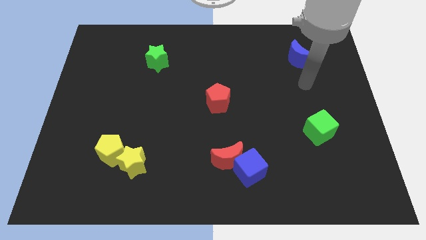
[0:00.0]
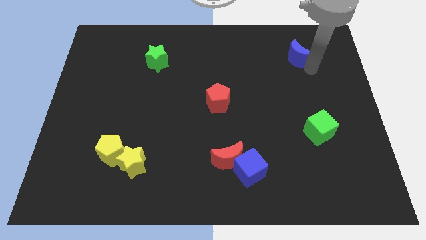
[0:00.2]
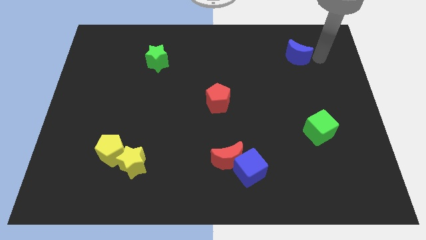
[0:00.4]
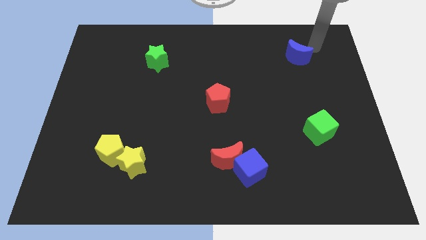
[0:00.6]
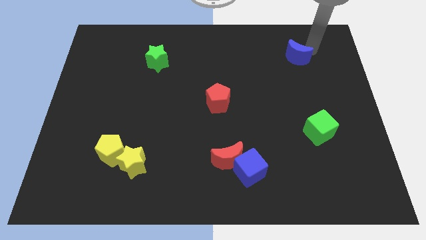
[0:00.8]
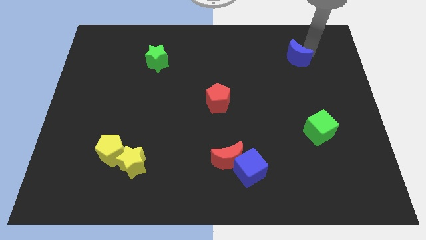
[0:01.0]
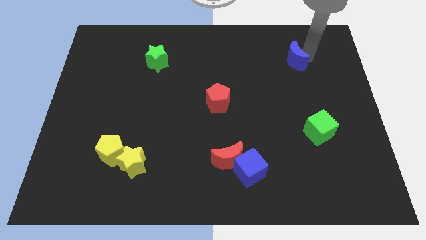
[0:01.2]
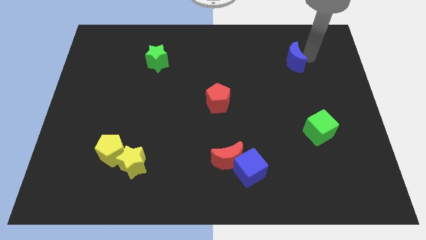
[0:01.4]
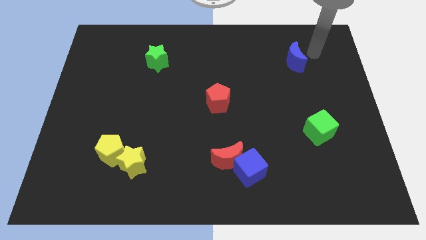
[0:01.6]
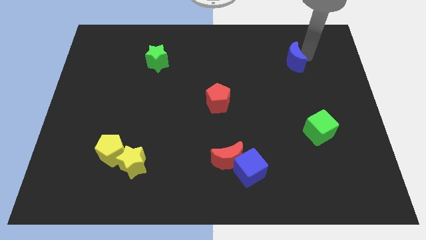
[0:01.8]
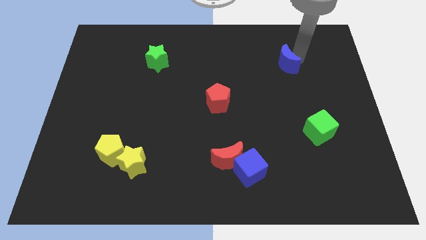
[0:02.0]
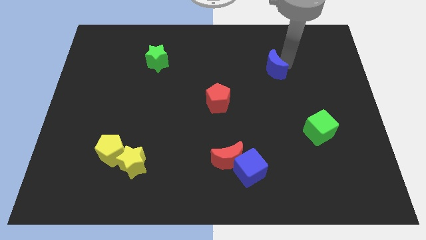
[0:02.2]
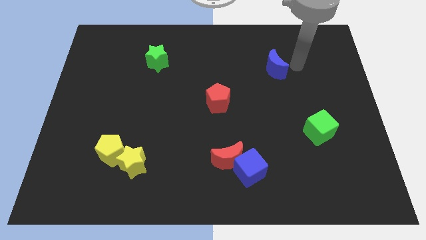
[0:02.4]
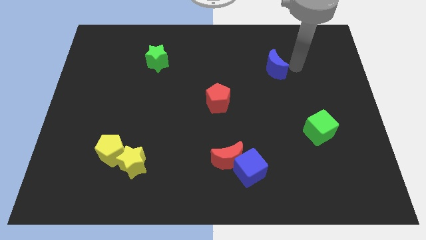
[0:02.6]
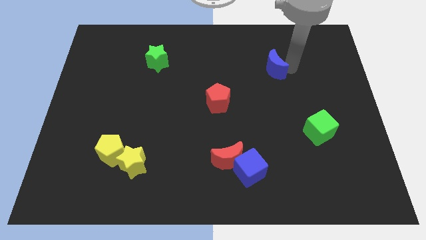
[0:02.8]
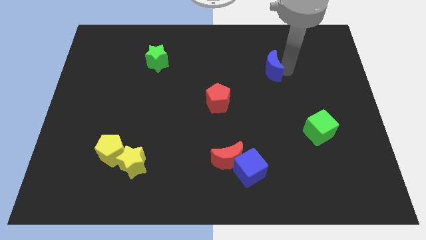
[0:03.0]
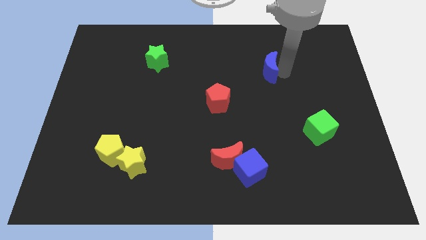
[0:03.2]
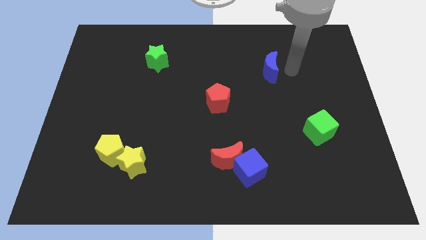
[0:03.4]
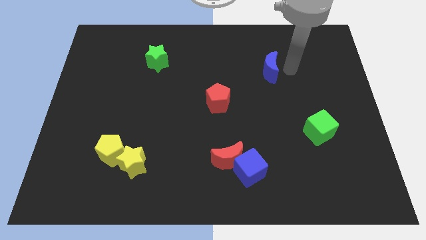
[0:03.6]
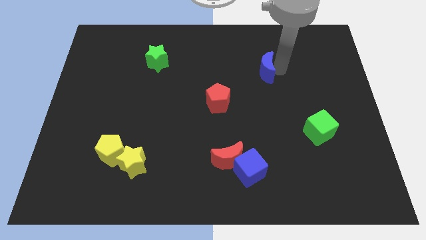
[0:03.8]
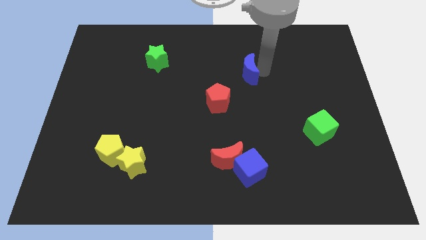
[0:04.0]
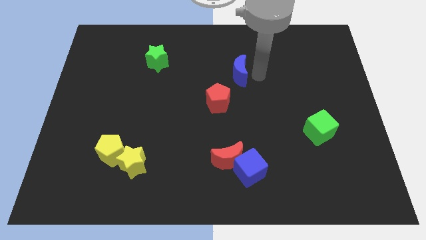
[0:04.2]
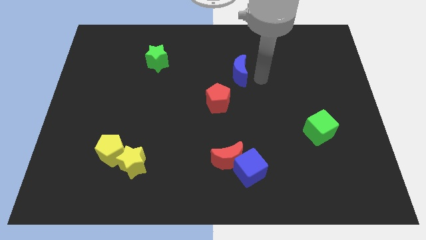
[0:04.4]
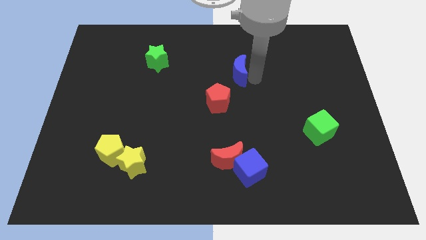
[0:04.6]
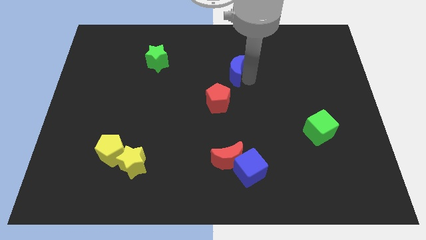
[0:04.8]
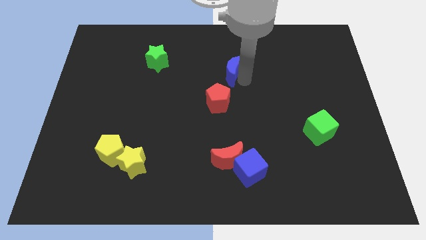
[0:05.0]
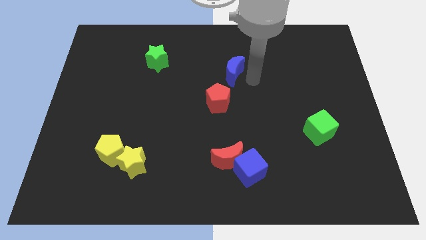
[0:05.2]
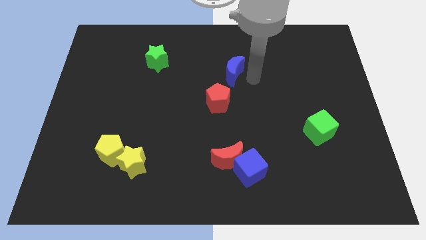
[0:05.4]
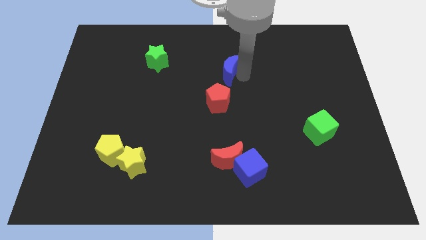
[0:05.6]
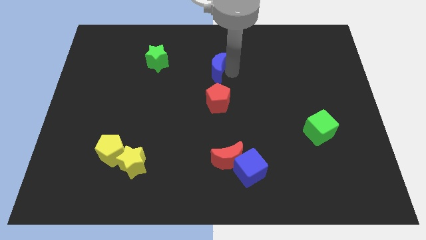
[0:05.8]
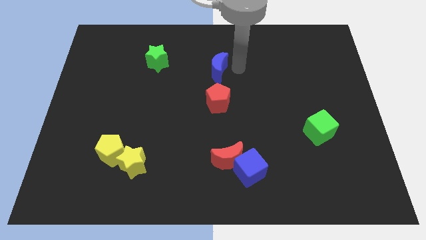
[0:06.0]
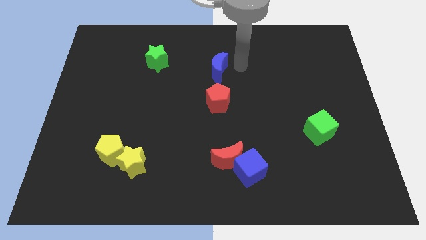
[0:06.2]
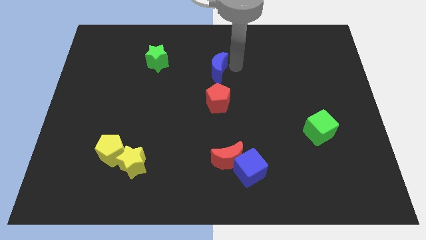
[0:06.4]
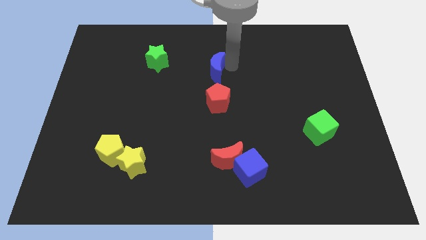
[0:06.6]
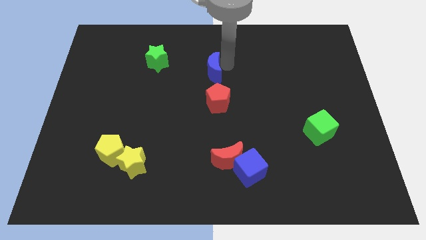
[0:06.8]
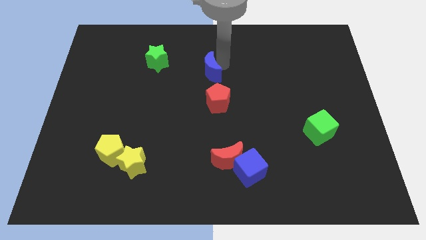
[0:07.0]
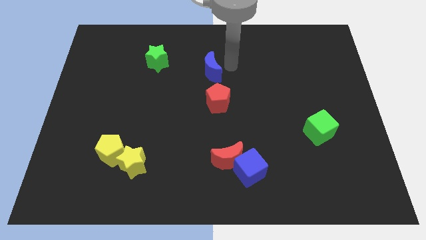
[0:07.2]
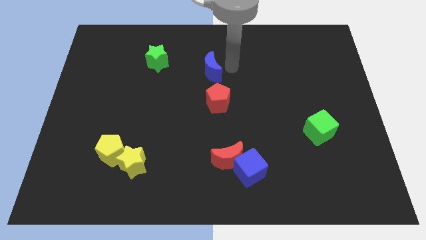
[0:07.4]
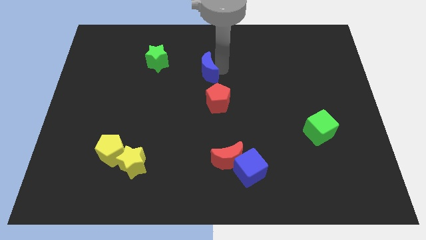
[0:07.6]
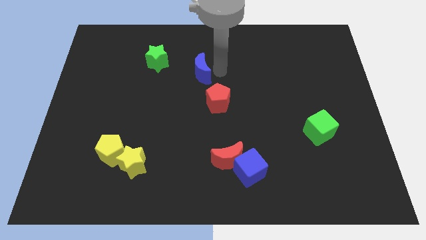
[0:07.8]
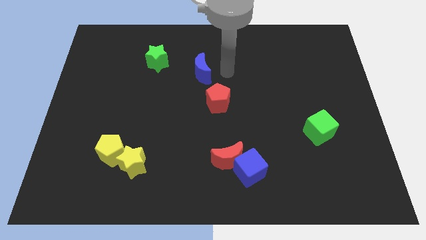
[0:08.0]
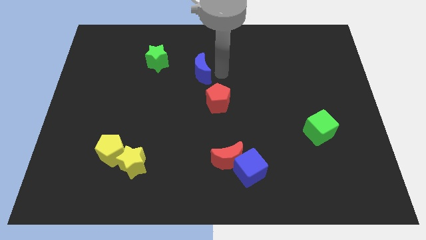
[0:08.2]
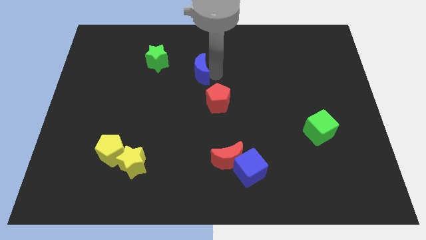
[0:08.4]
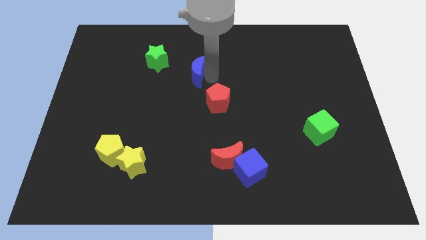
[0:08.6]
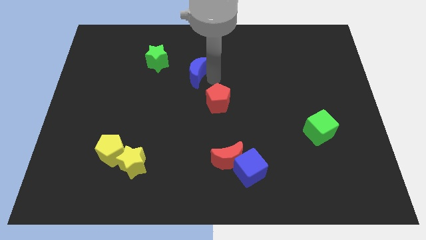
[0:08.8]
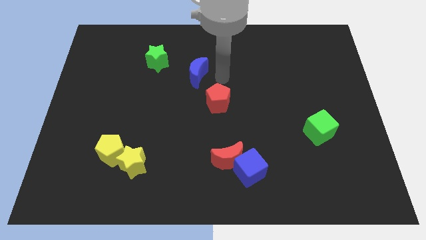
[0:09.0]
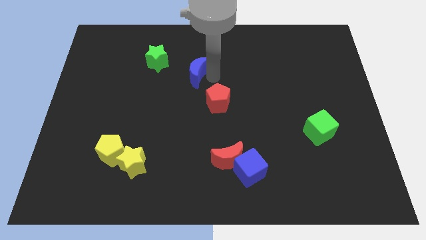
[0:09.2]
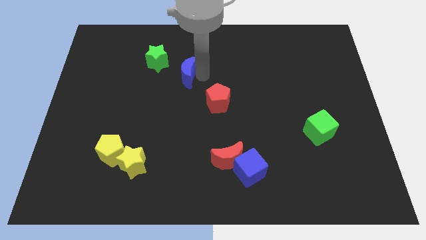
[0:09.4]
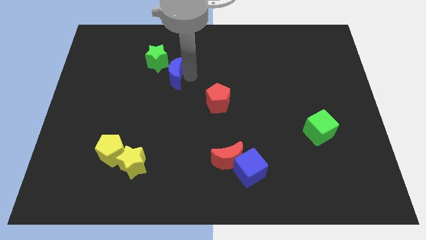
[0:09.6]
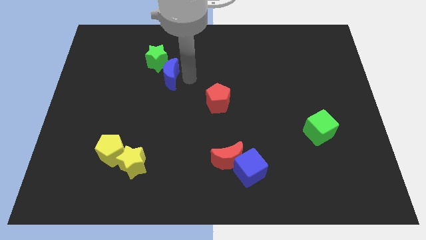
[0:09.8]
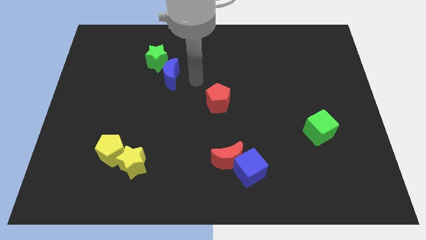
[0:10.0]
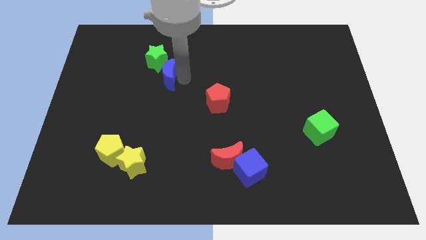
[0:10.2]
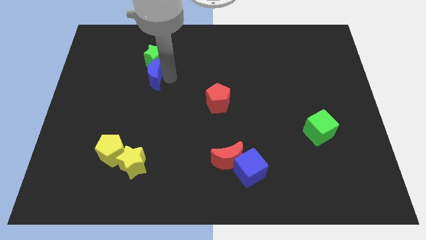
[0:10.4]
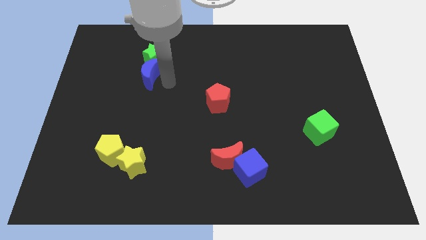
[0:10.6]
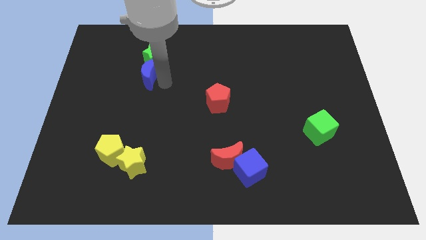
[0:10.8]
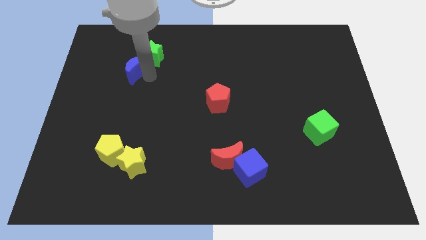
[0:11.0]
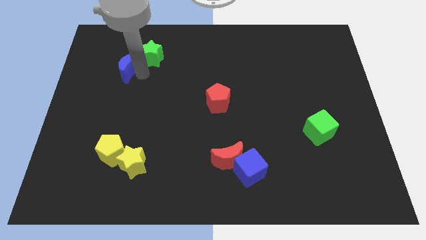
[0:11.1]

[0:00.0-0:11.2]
move the blue moon to the left of the green star

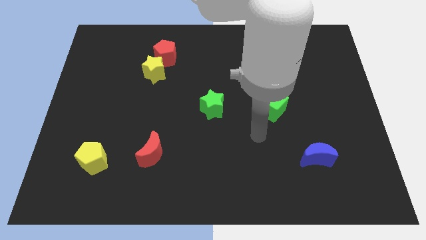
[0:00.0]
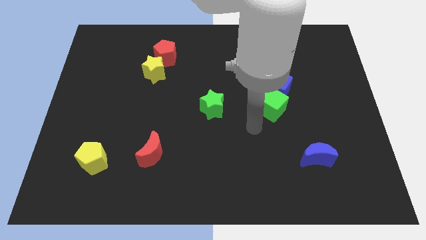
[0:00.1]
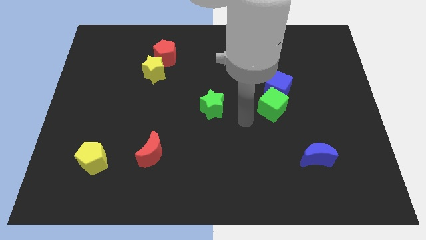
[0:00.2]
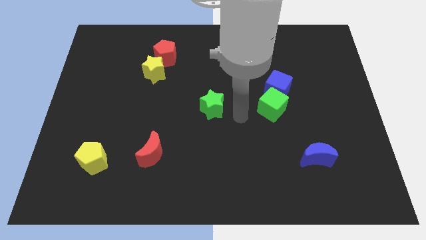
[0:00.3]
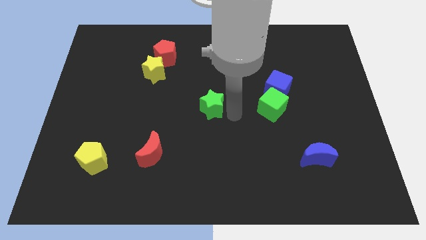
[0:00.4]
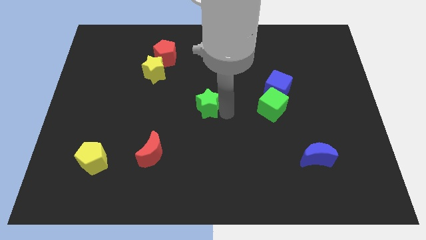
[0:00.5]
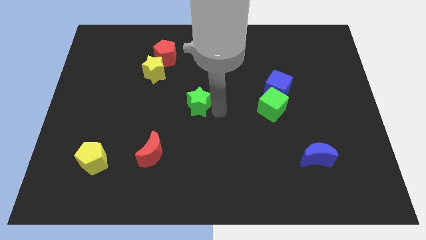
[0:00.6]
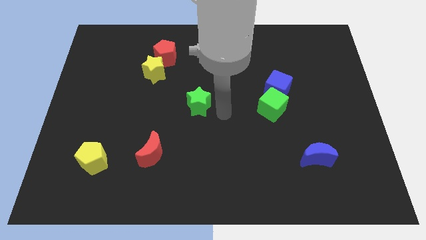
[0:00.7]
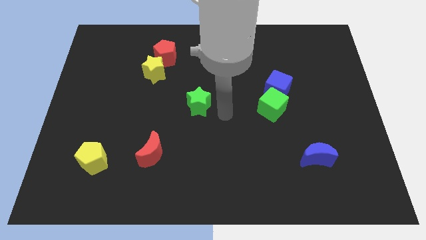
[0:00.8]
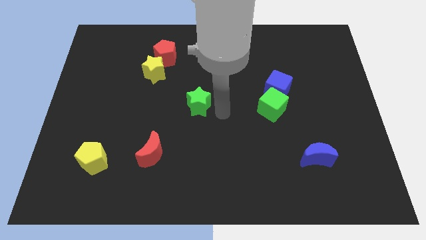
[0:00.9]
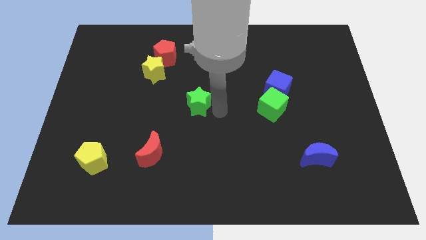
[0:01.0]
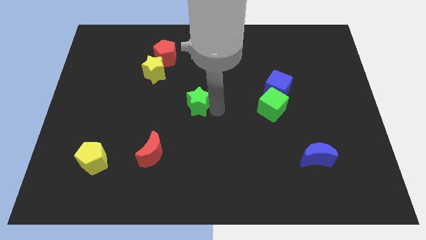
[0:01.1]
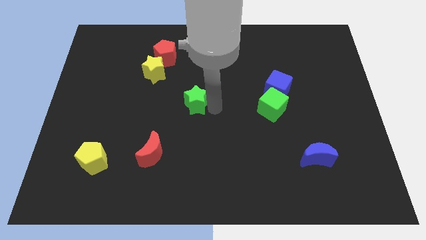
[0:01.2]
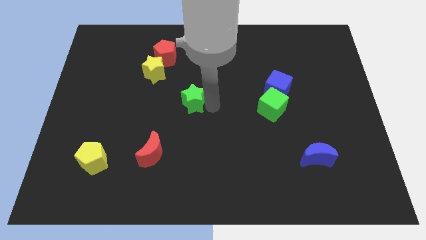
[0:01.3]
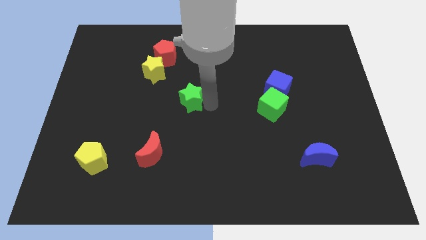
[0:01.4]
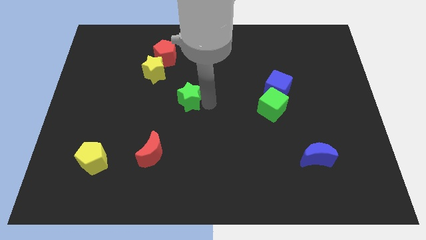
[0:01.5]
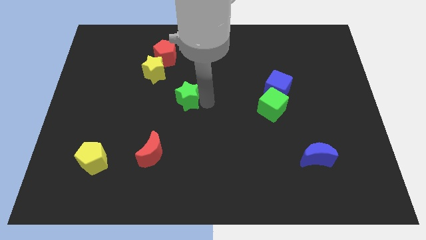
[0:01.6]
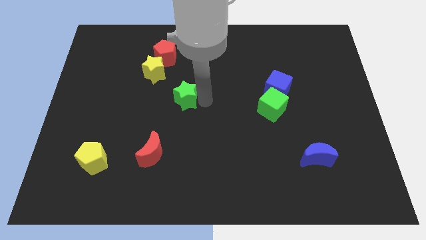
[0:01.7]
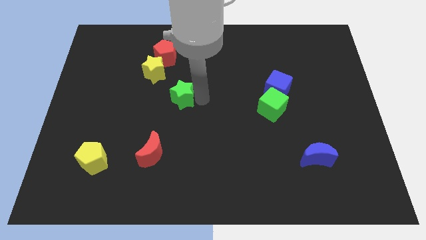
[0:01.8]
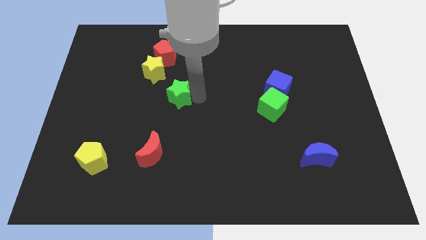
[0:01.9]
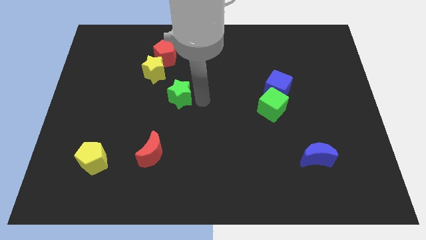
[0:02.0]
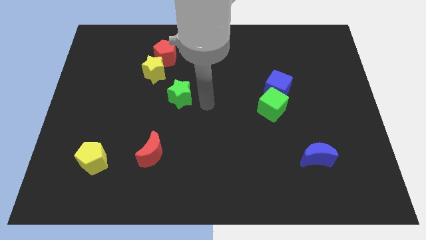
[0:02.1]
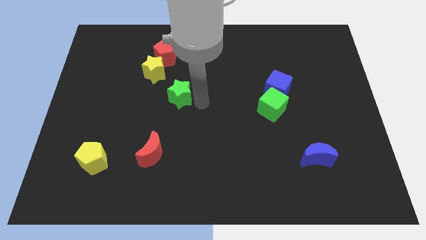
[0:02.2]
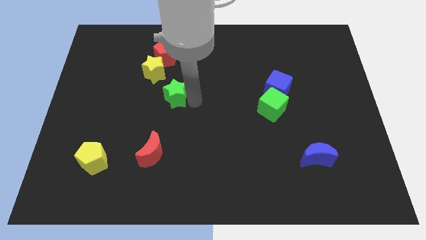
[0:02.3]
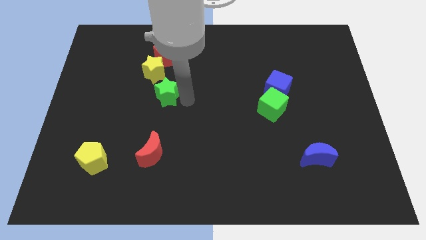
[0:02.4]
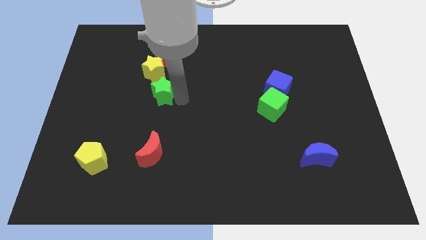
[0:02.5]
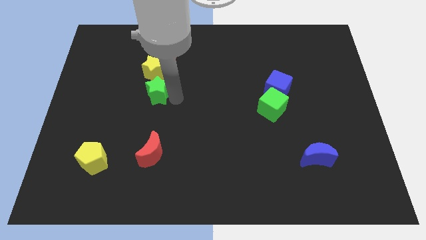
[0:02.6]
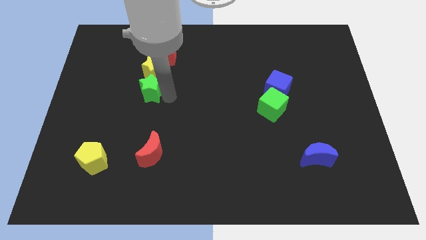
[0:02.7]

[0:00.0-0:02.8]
push the green star to the bottom left of the yellow star
